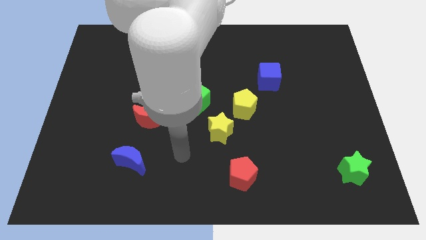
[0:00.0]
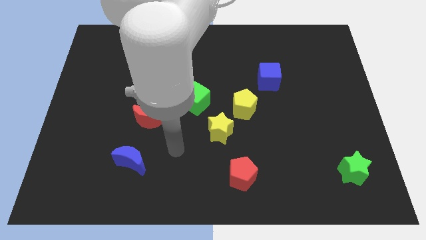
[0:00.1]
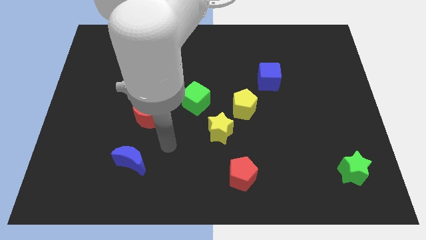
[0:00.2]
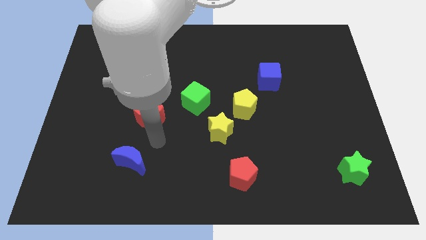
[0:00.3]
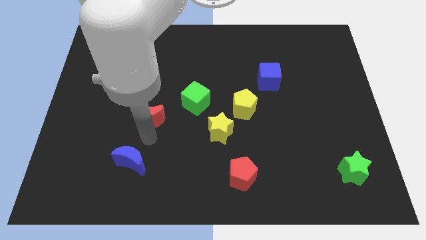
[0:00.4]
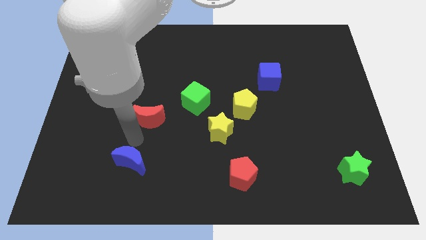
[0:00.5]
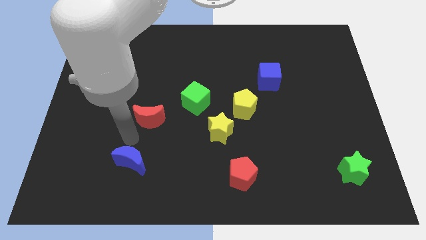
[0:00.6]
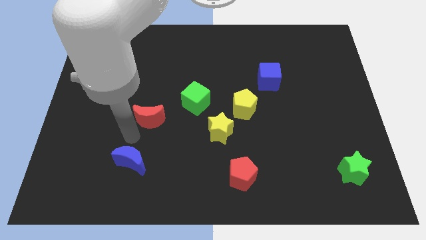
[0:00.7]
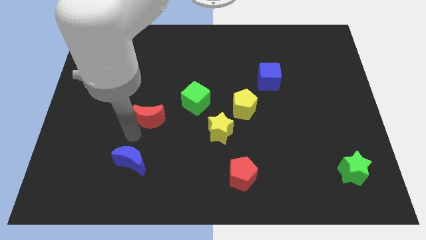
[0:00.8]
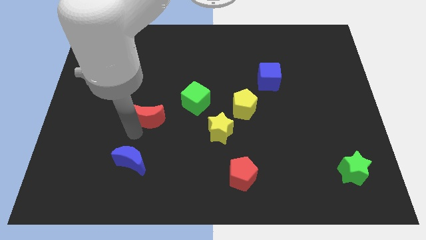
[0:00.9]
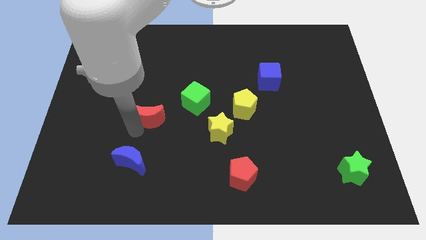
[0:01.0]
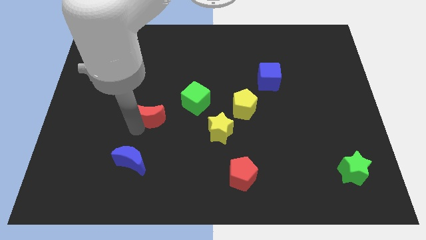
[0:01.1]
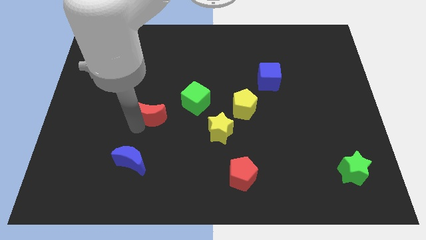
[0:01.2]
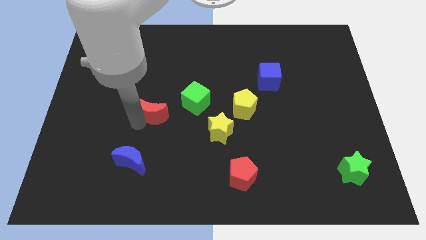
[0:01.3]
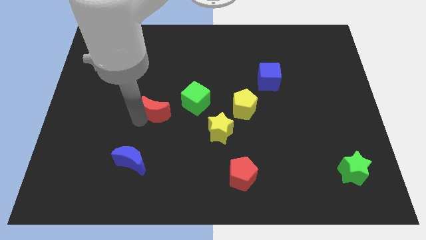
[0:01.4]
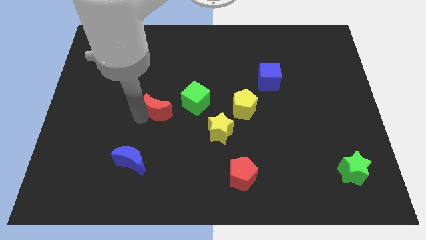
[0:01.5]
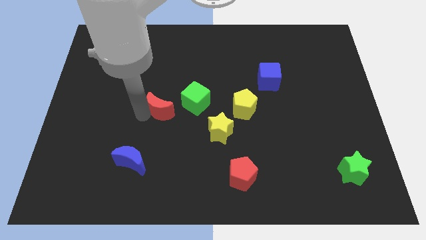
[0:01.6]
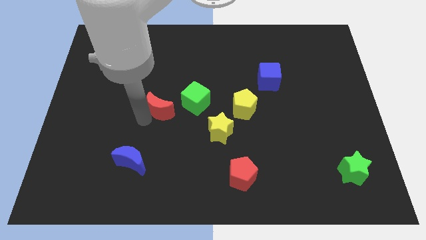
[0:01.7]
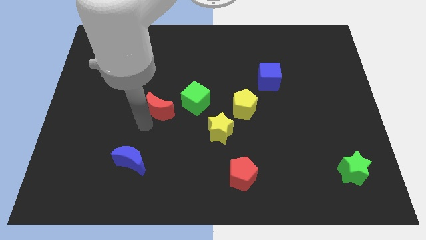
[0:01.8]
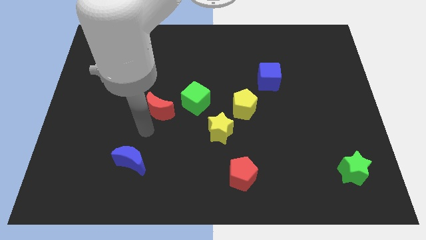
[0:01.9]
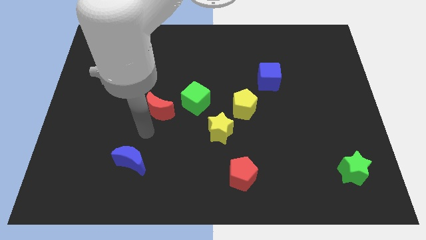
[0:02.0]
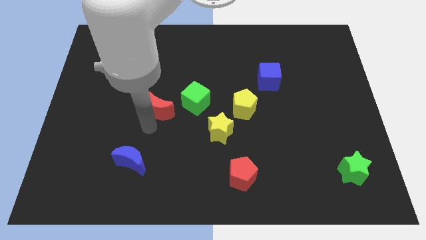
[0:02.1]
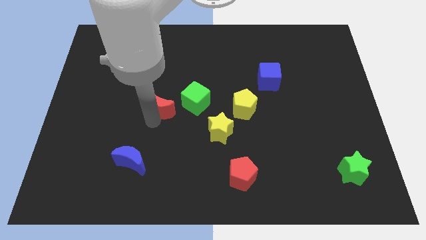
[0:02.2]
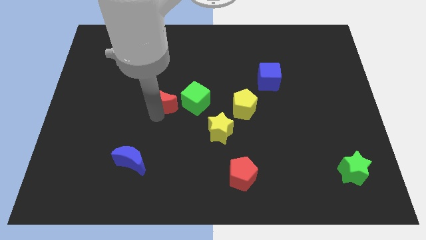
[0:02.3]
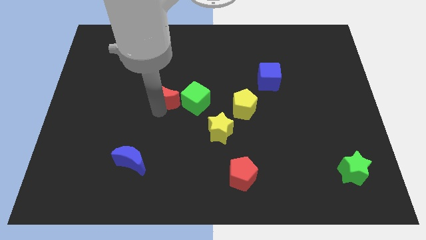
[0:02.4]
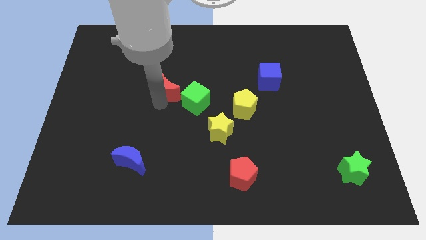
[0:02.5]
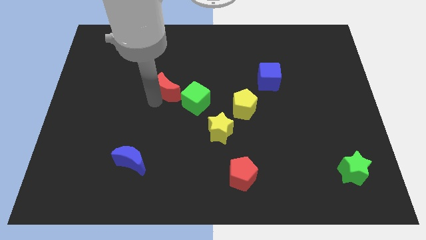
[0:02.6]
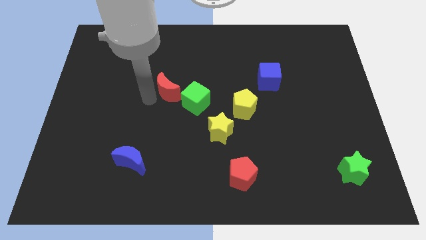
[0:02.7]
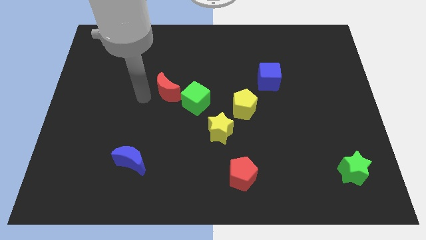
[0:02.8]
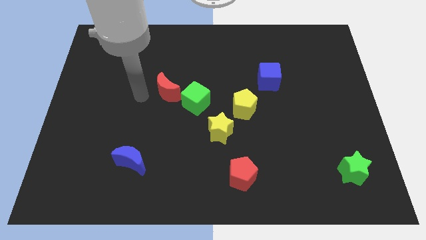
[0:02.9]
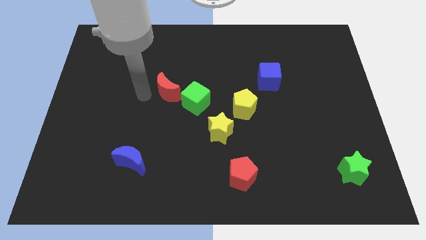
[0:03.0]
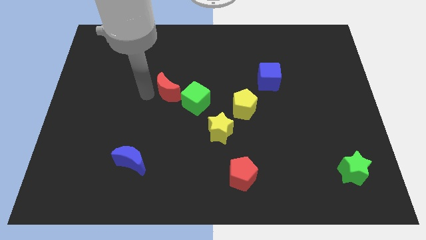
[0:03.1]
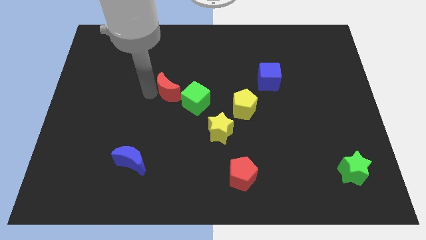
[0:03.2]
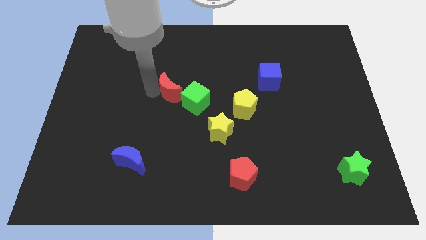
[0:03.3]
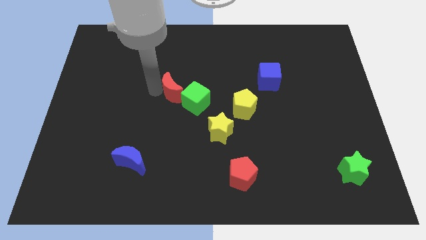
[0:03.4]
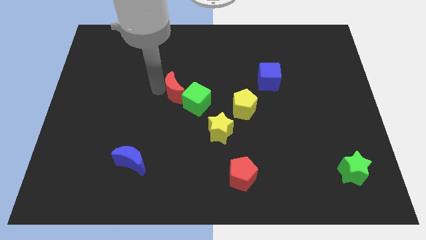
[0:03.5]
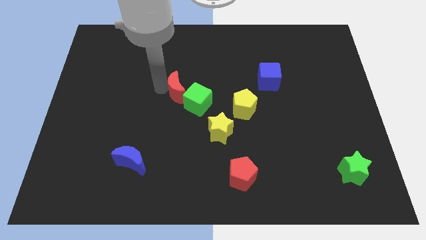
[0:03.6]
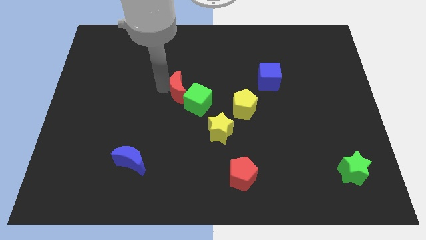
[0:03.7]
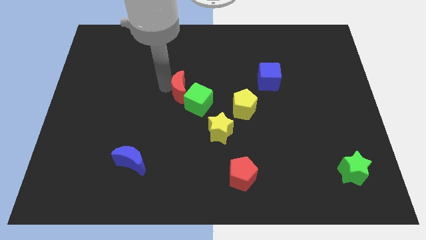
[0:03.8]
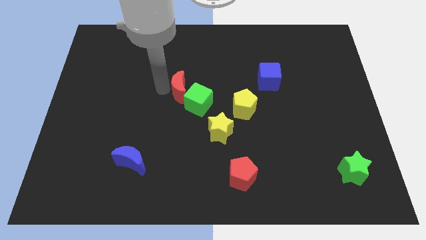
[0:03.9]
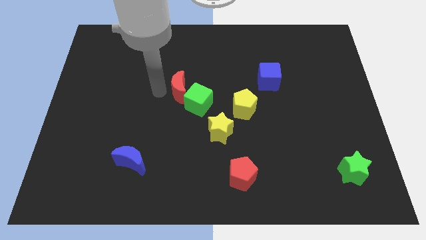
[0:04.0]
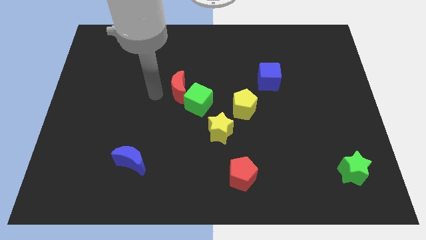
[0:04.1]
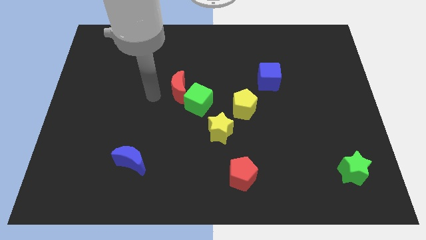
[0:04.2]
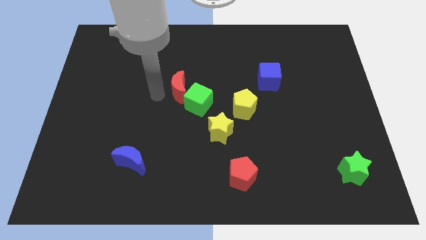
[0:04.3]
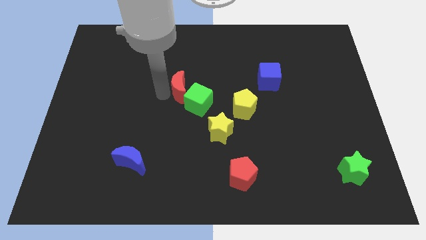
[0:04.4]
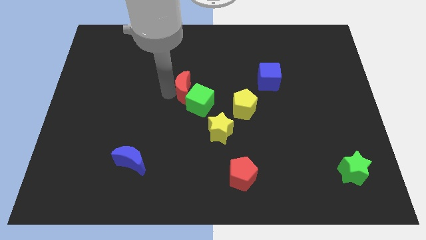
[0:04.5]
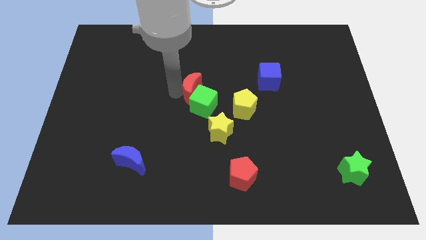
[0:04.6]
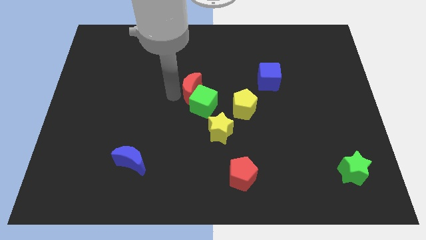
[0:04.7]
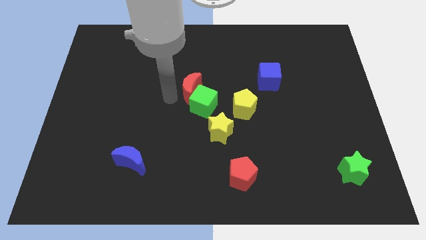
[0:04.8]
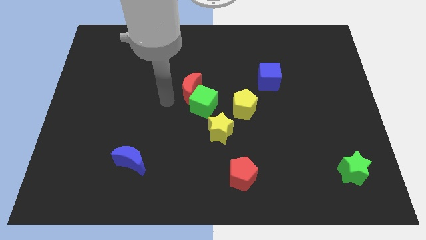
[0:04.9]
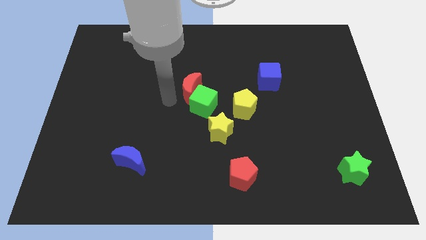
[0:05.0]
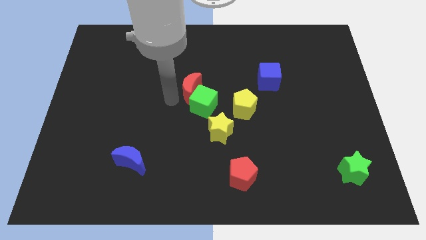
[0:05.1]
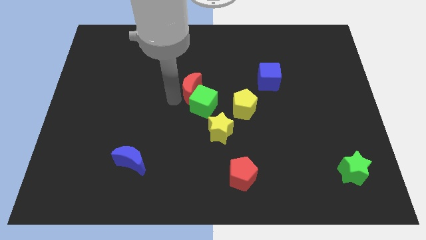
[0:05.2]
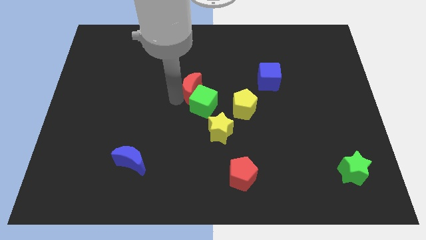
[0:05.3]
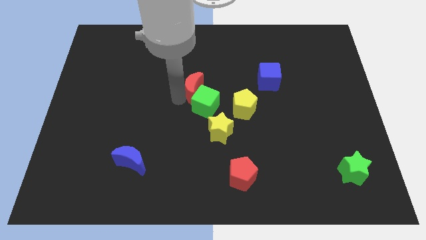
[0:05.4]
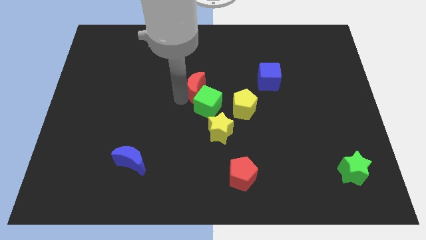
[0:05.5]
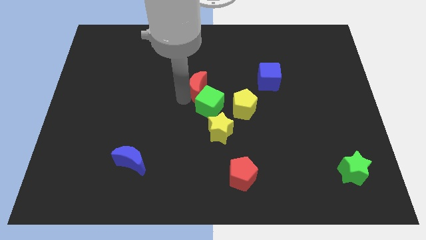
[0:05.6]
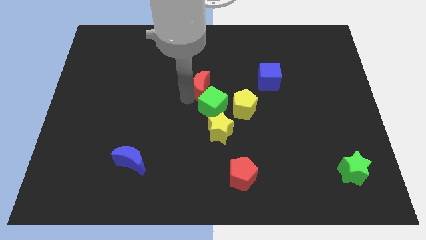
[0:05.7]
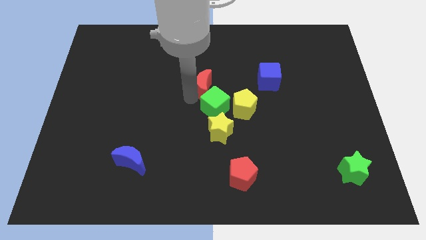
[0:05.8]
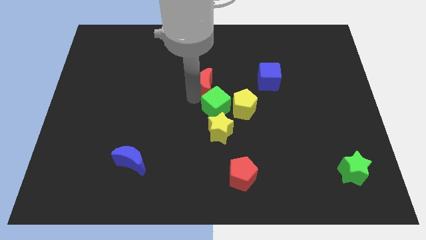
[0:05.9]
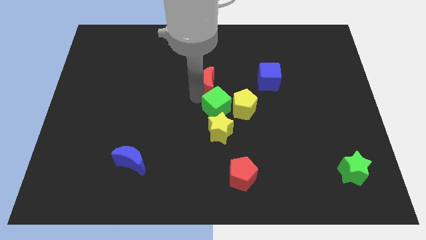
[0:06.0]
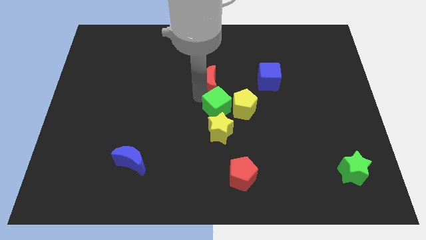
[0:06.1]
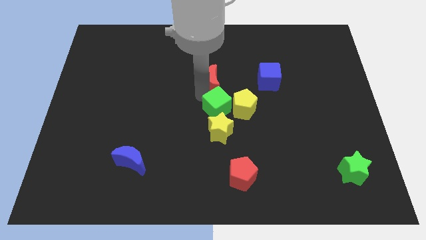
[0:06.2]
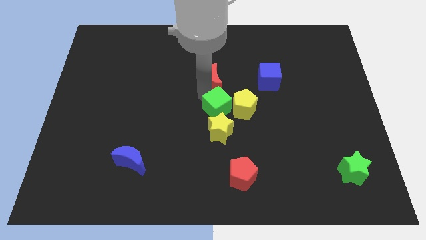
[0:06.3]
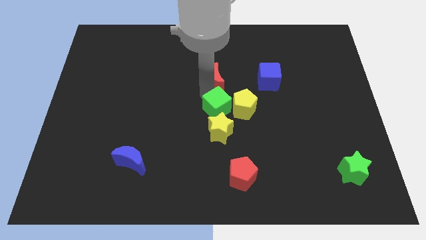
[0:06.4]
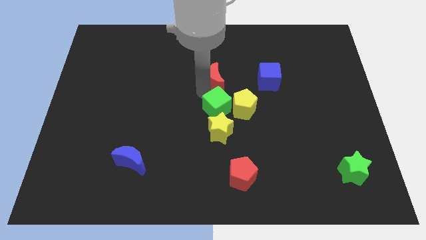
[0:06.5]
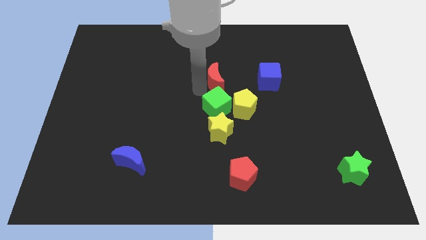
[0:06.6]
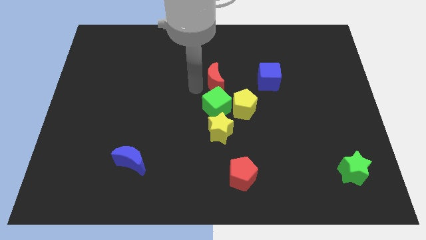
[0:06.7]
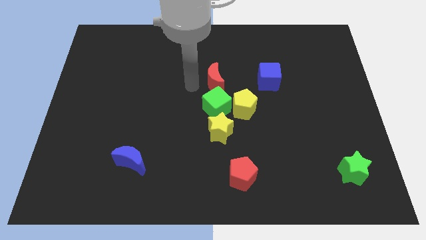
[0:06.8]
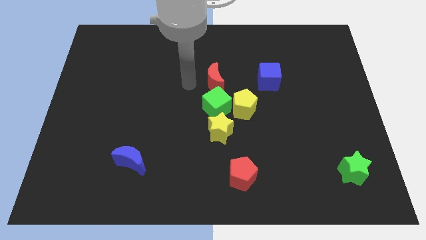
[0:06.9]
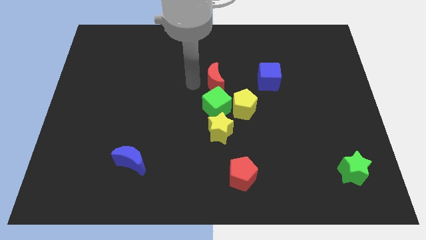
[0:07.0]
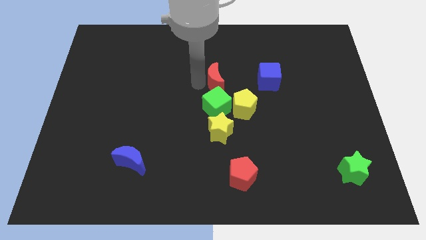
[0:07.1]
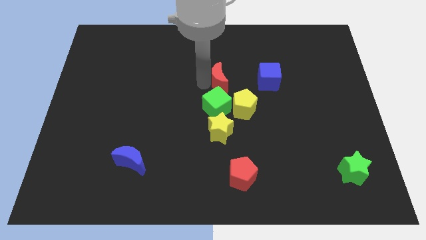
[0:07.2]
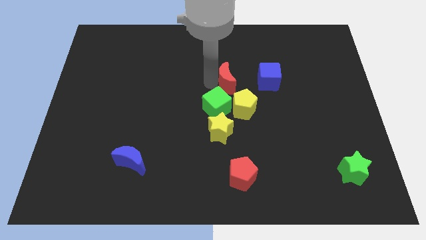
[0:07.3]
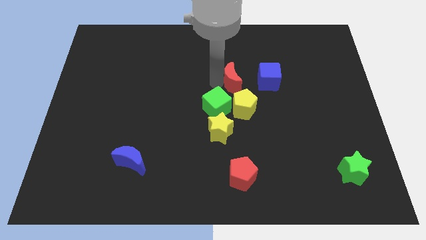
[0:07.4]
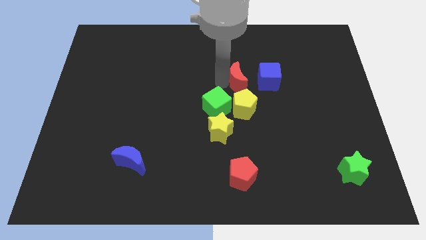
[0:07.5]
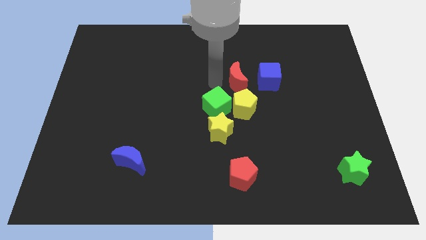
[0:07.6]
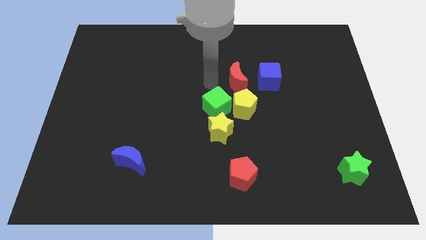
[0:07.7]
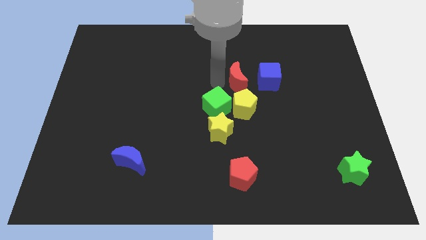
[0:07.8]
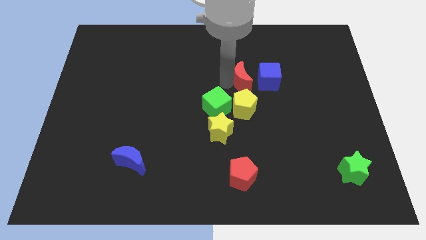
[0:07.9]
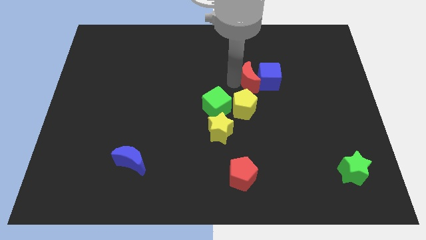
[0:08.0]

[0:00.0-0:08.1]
put the red moon next to the blue cube
